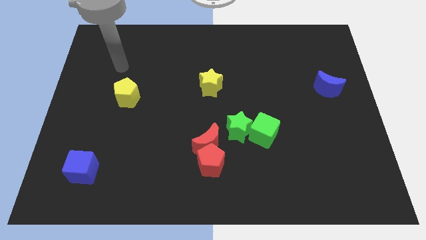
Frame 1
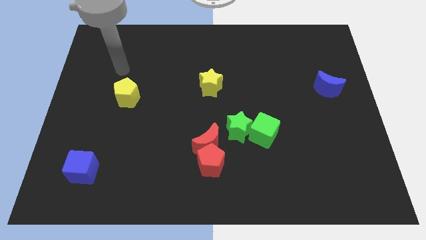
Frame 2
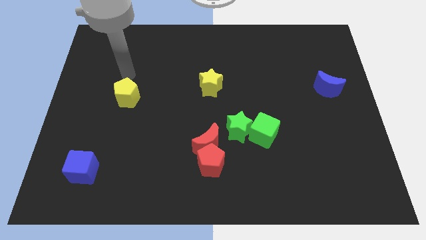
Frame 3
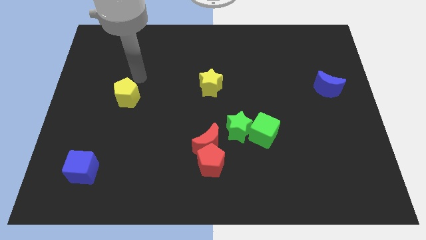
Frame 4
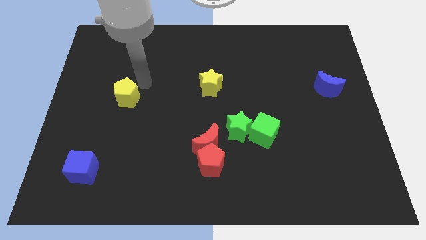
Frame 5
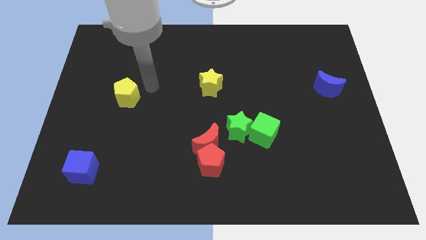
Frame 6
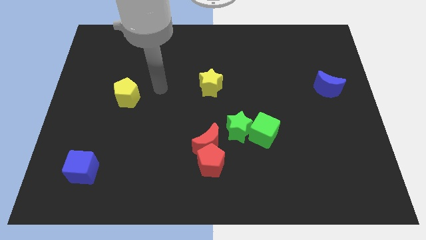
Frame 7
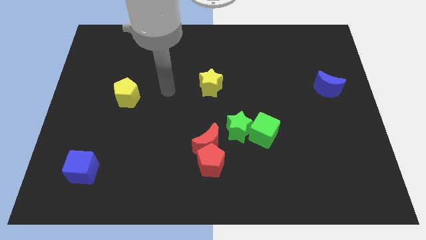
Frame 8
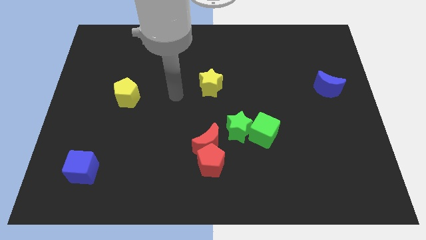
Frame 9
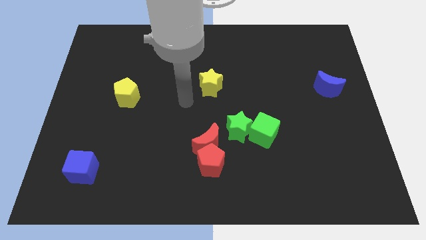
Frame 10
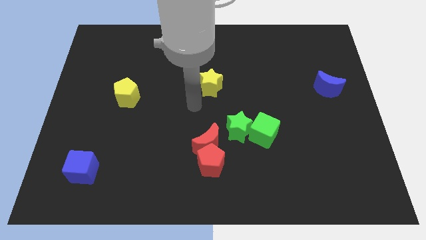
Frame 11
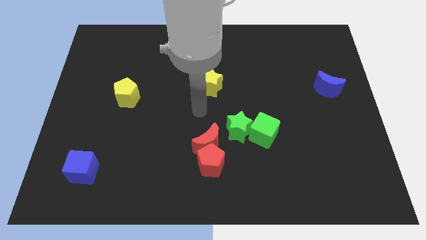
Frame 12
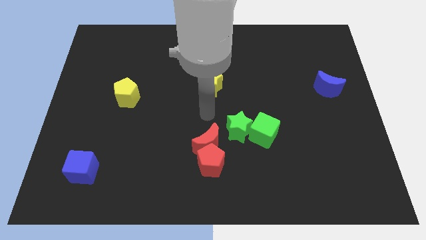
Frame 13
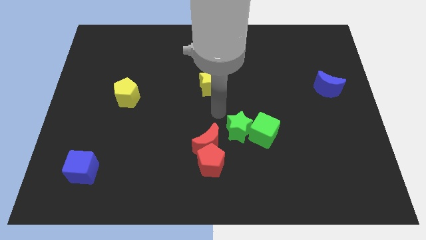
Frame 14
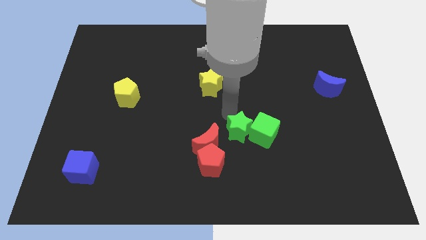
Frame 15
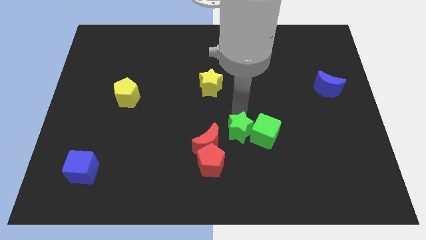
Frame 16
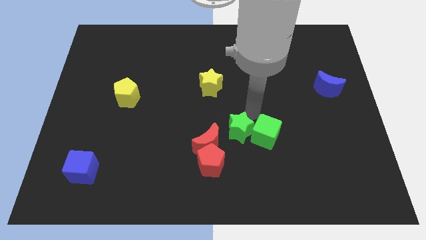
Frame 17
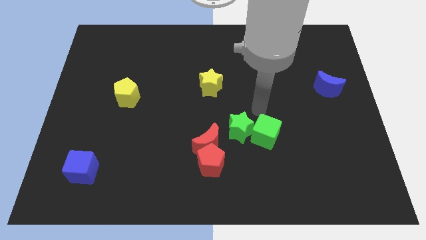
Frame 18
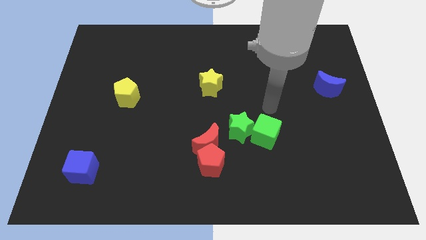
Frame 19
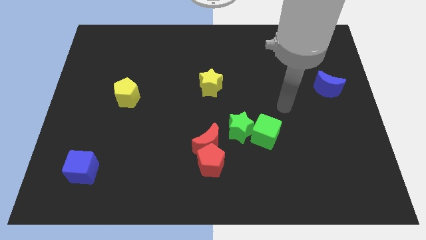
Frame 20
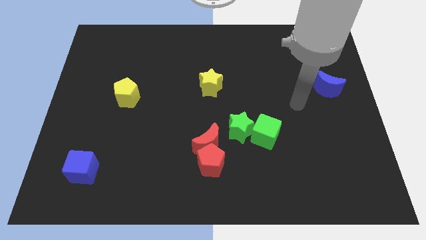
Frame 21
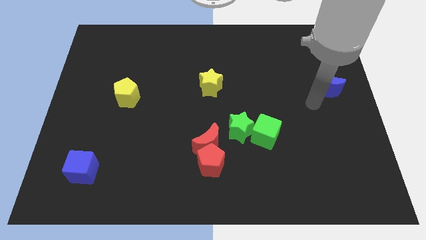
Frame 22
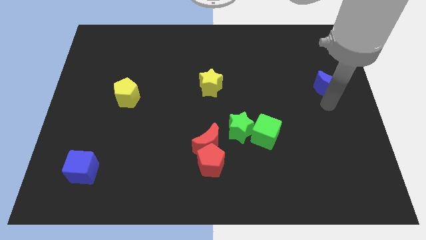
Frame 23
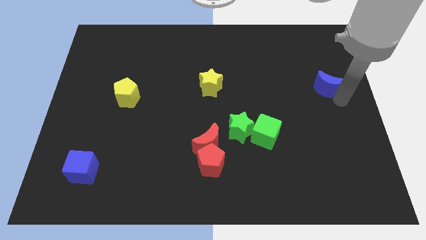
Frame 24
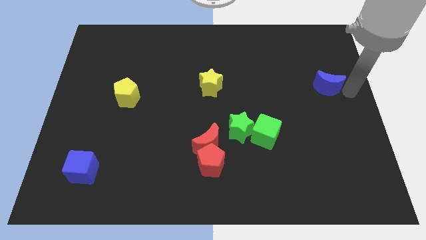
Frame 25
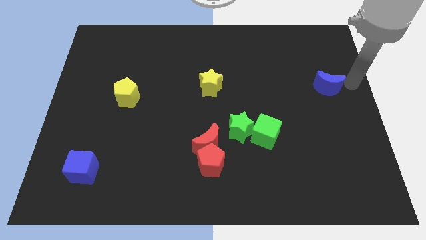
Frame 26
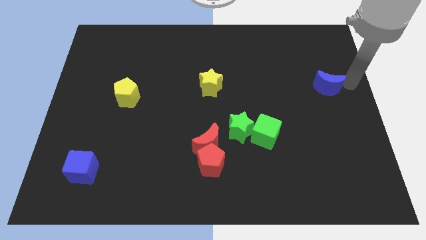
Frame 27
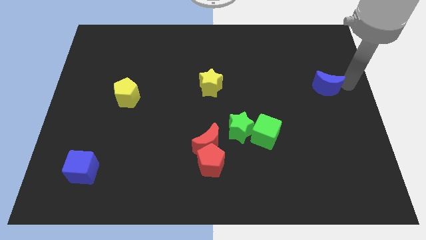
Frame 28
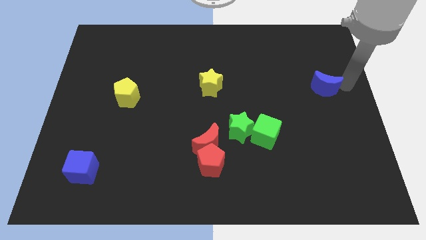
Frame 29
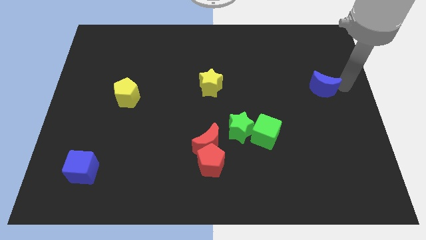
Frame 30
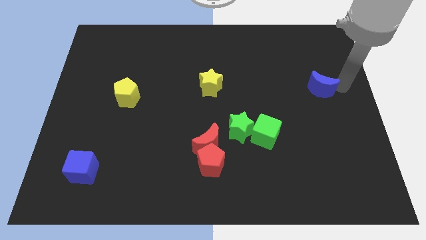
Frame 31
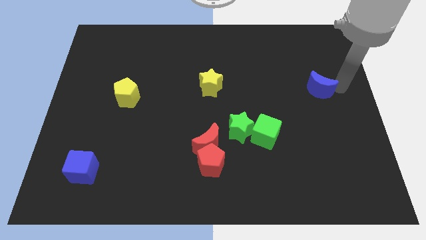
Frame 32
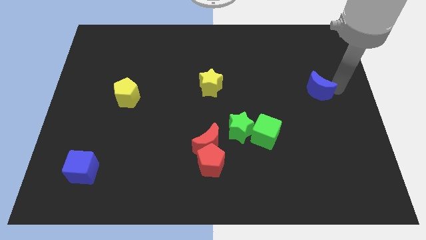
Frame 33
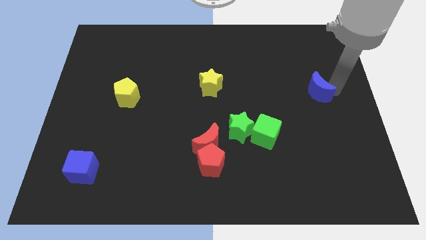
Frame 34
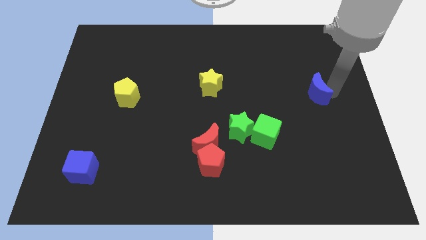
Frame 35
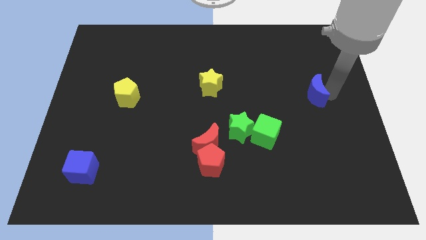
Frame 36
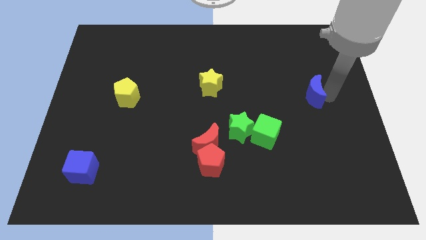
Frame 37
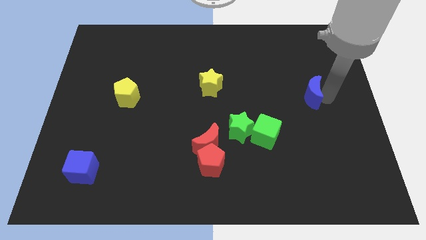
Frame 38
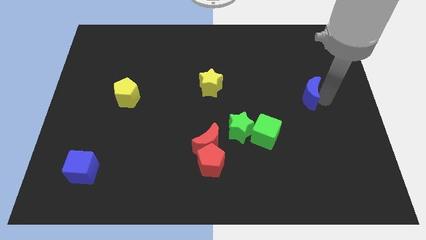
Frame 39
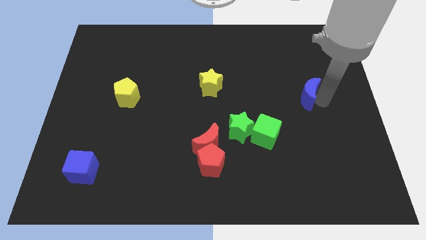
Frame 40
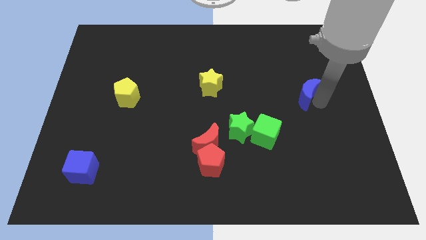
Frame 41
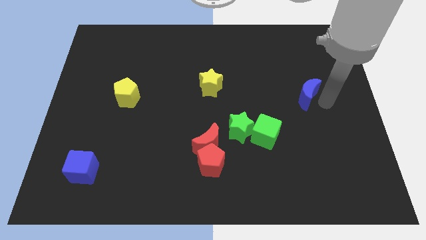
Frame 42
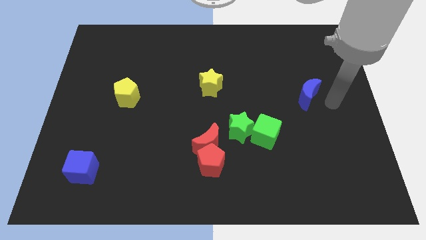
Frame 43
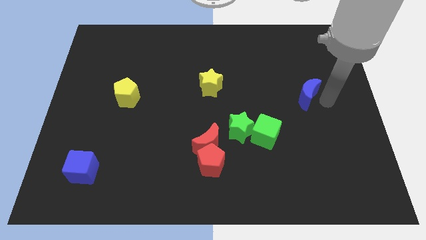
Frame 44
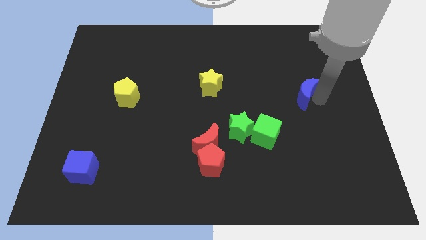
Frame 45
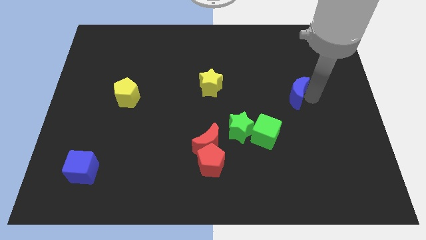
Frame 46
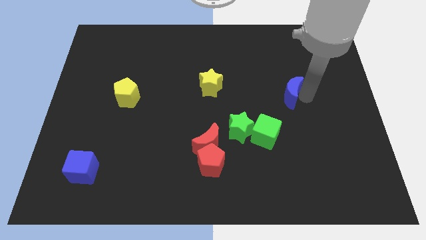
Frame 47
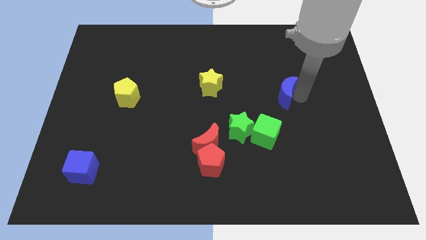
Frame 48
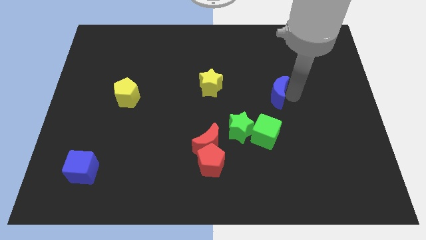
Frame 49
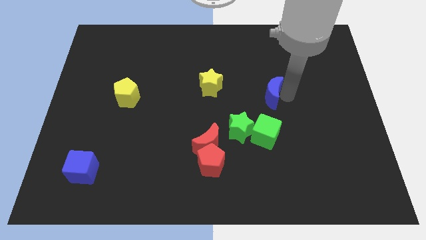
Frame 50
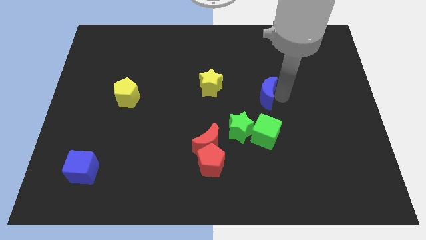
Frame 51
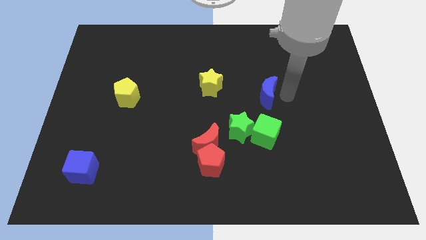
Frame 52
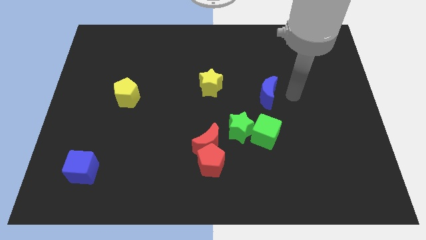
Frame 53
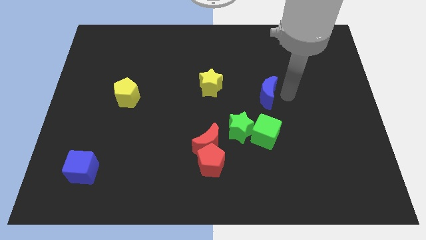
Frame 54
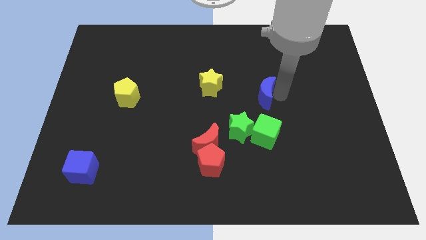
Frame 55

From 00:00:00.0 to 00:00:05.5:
put the blue moon to the center of the board
